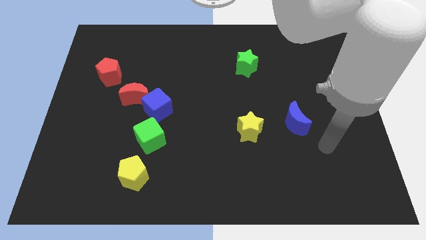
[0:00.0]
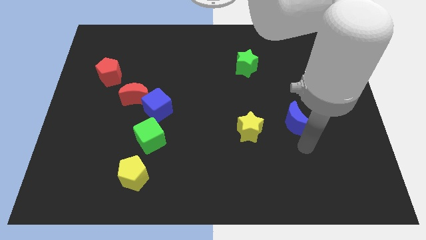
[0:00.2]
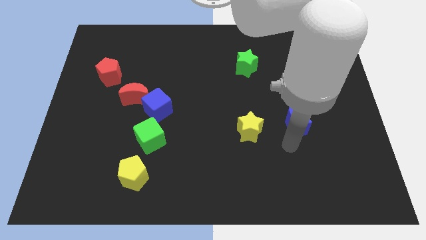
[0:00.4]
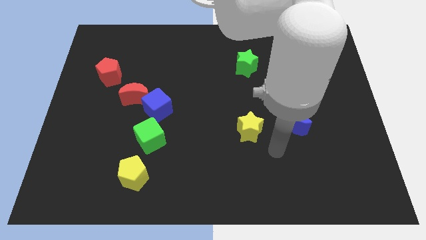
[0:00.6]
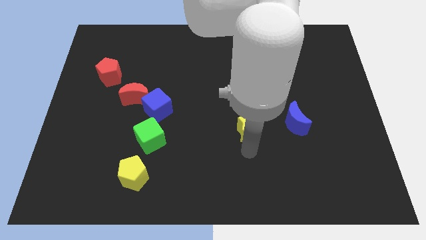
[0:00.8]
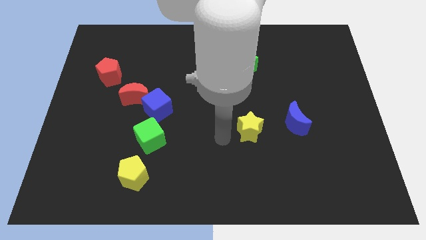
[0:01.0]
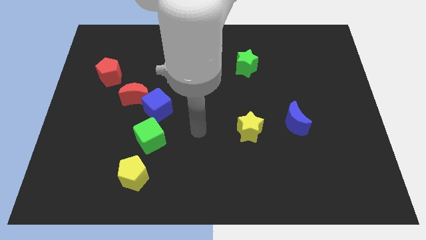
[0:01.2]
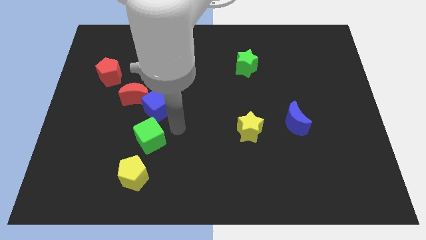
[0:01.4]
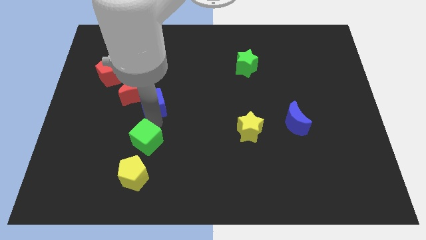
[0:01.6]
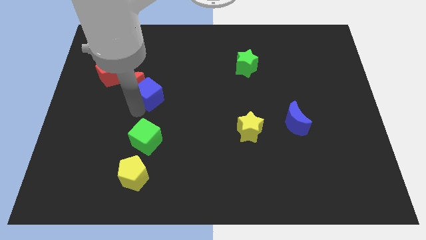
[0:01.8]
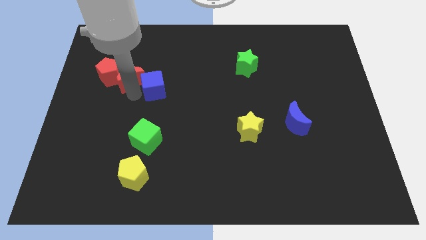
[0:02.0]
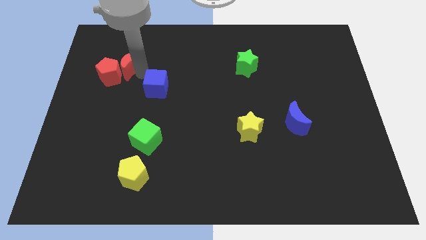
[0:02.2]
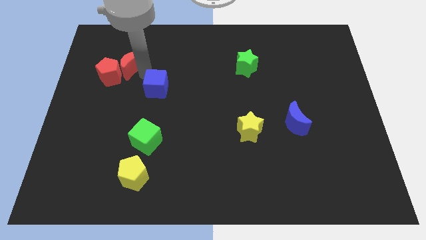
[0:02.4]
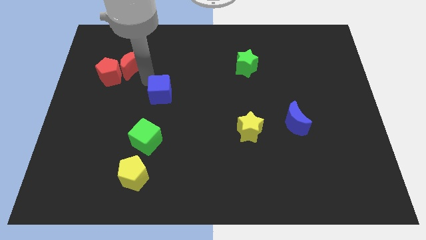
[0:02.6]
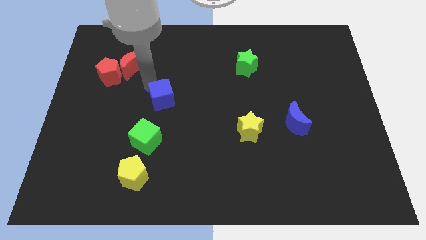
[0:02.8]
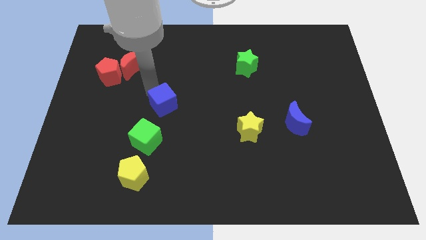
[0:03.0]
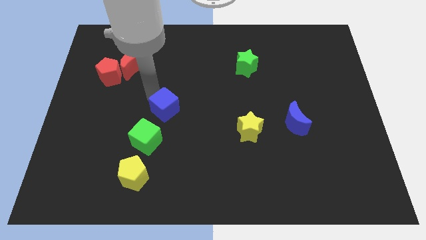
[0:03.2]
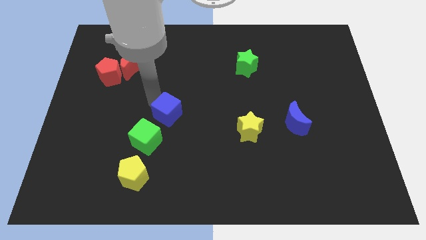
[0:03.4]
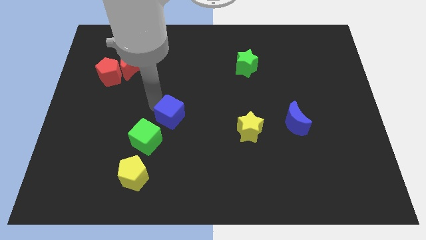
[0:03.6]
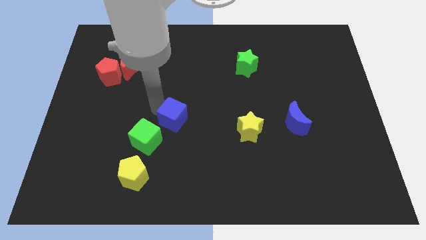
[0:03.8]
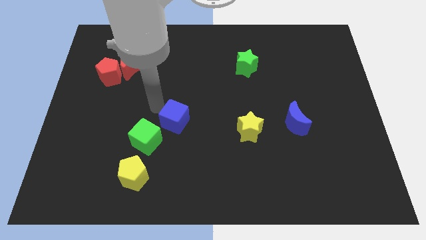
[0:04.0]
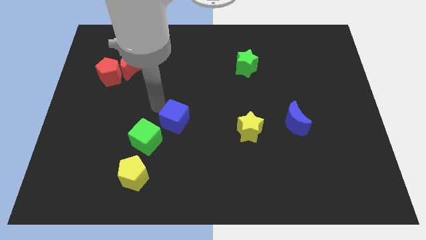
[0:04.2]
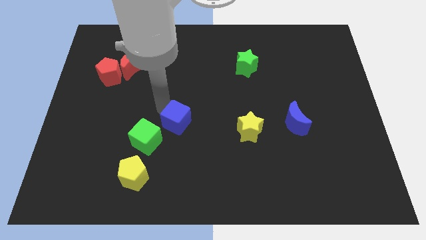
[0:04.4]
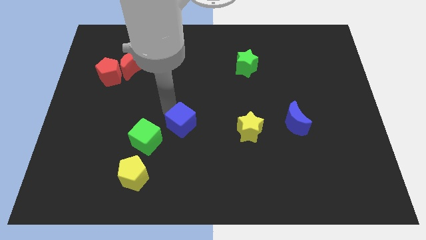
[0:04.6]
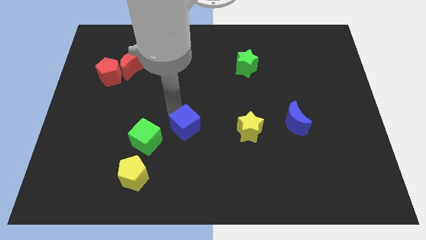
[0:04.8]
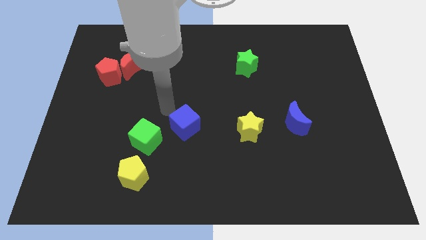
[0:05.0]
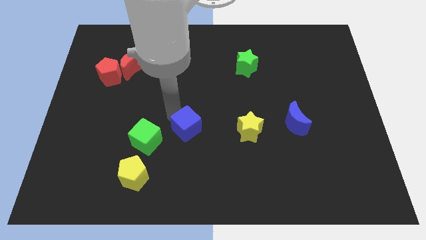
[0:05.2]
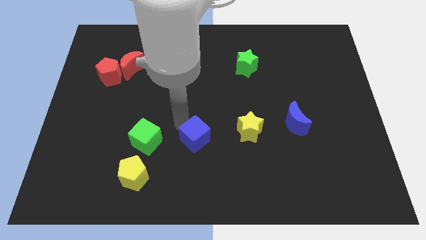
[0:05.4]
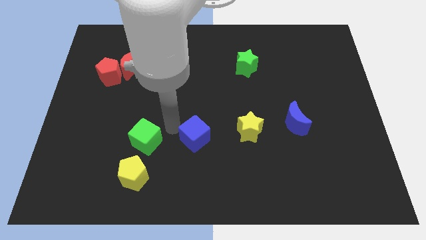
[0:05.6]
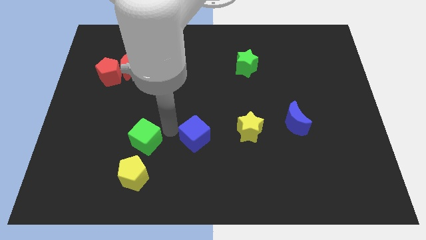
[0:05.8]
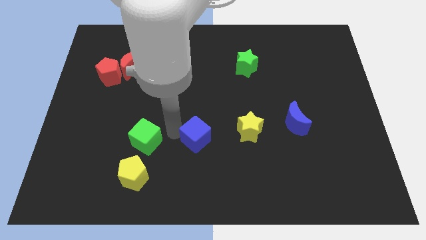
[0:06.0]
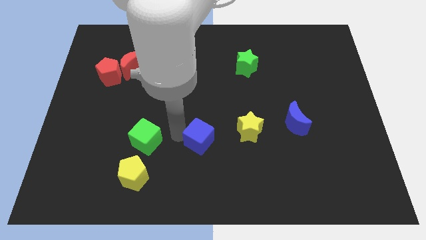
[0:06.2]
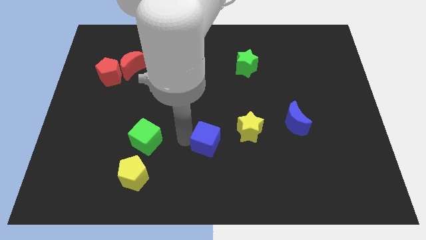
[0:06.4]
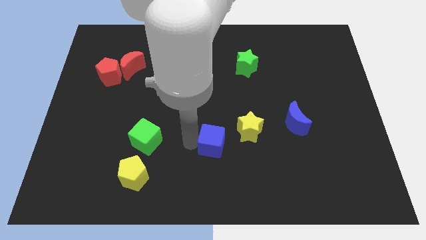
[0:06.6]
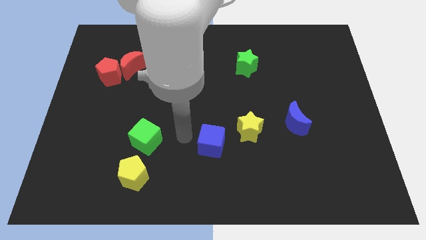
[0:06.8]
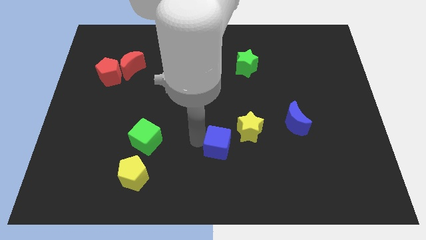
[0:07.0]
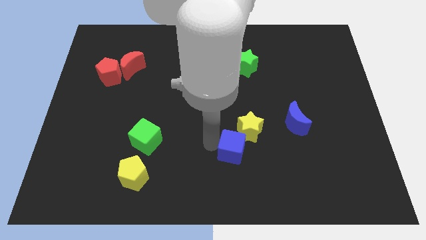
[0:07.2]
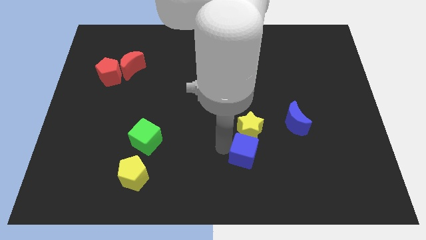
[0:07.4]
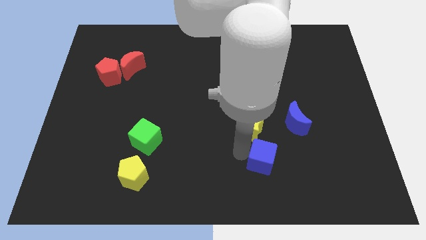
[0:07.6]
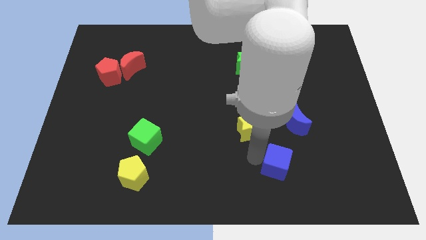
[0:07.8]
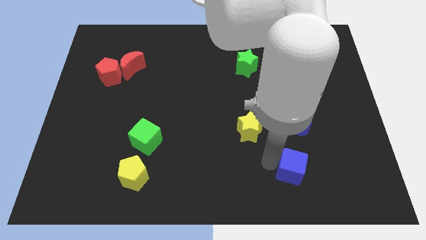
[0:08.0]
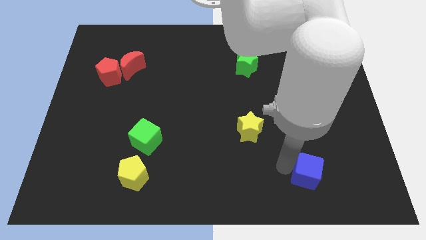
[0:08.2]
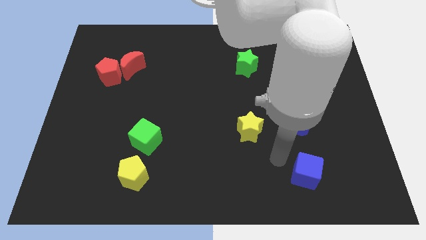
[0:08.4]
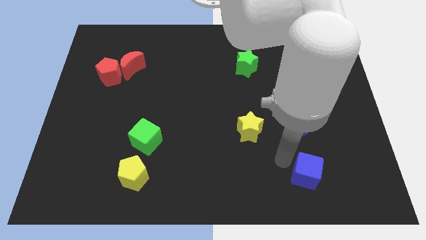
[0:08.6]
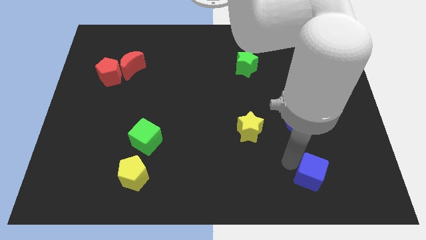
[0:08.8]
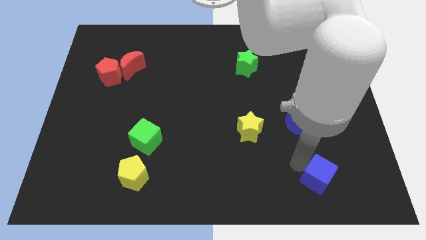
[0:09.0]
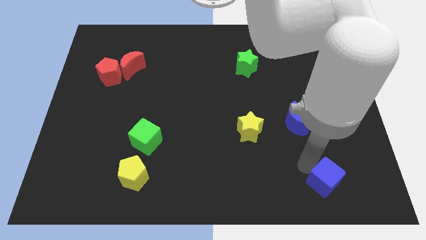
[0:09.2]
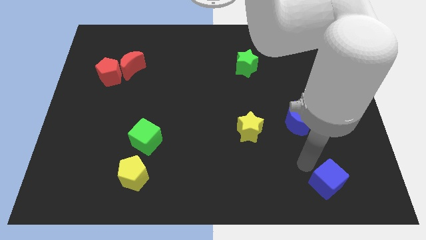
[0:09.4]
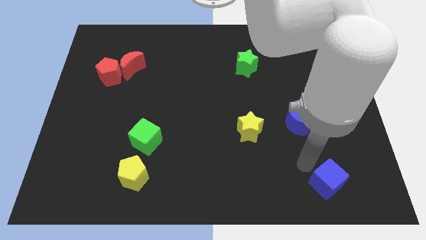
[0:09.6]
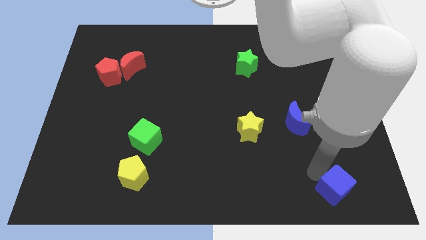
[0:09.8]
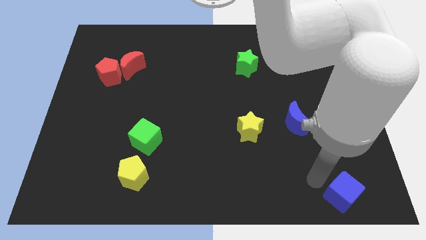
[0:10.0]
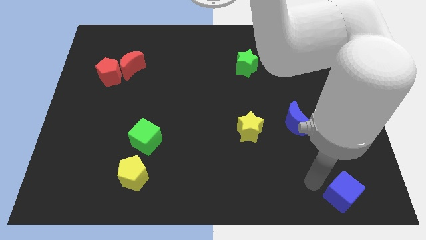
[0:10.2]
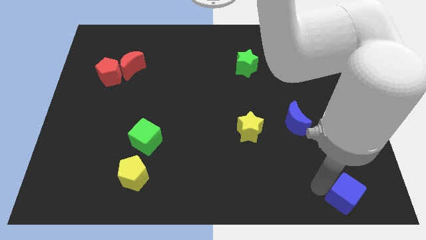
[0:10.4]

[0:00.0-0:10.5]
put the blue cube to the bottom right

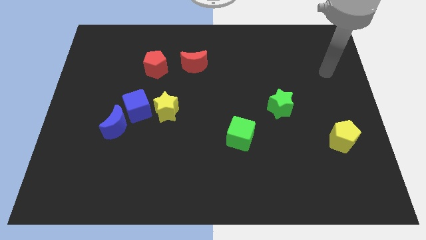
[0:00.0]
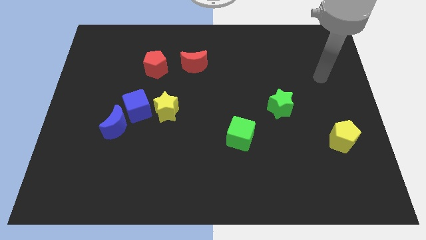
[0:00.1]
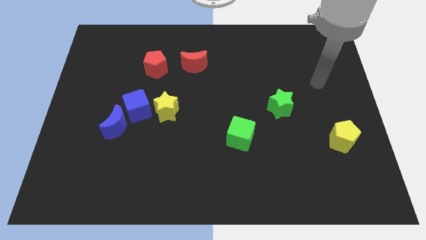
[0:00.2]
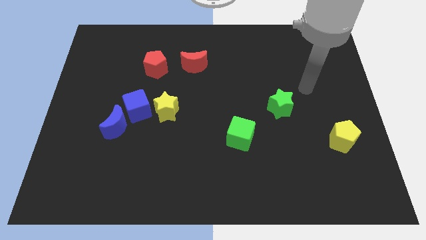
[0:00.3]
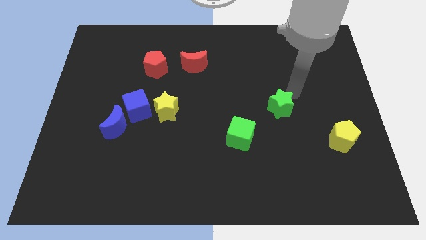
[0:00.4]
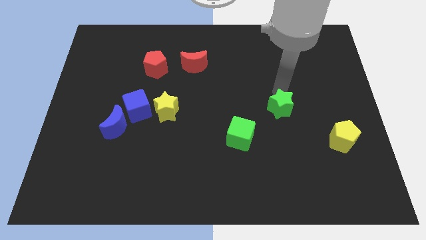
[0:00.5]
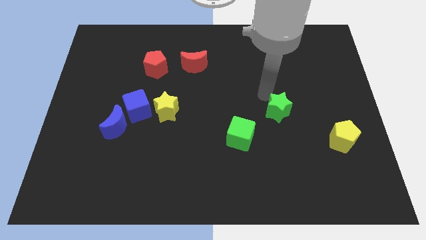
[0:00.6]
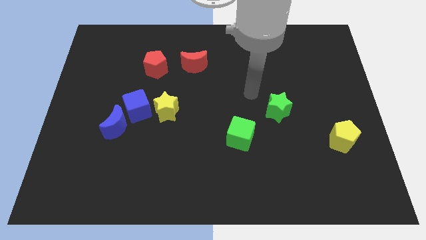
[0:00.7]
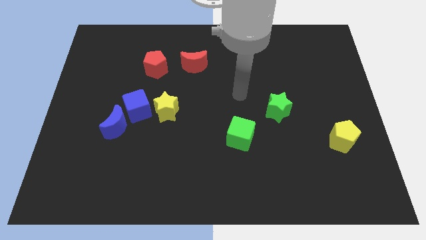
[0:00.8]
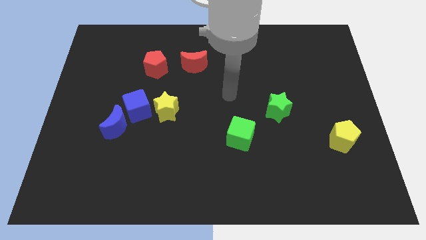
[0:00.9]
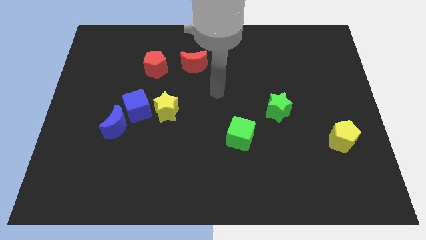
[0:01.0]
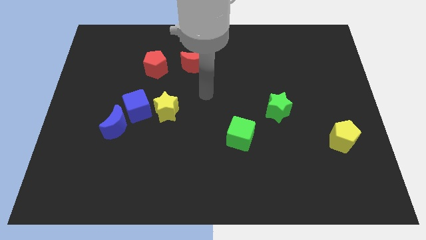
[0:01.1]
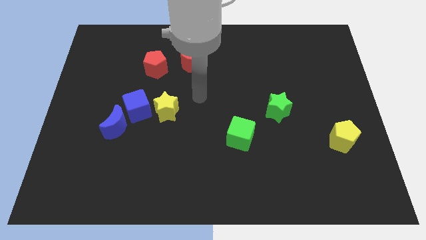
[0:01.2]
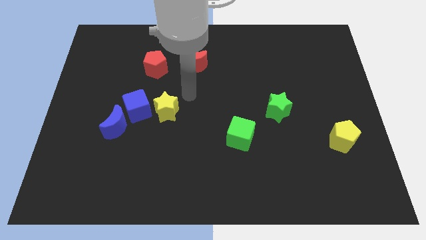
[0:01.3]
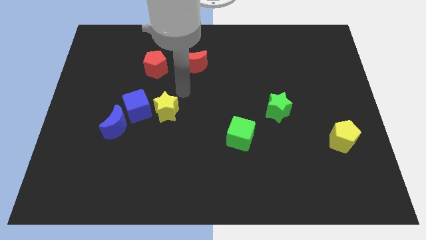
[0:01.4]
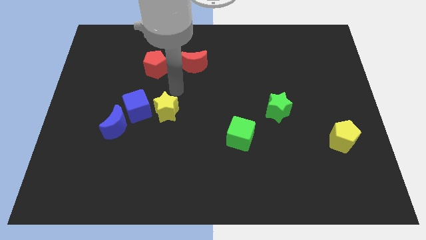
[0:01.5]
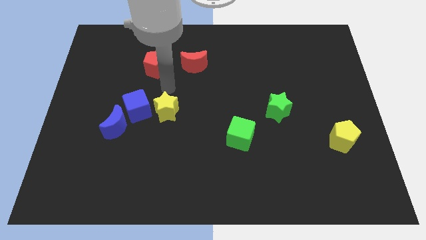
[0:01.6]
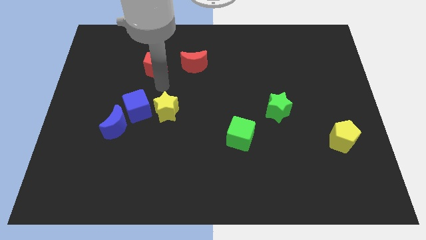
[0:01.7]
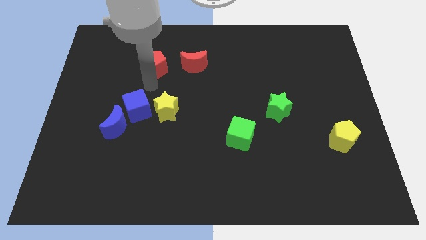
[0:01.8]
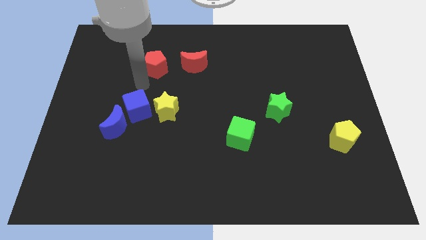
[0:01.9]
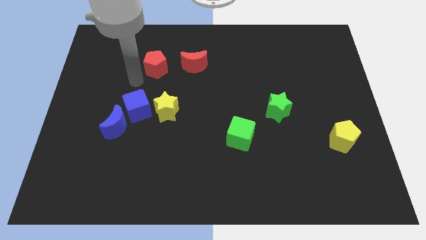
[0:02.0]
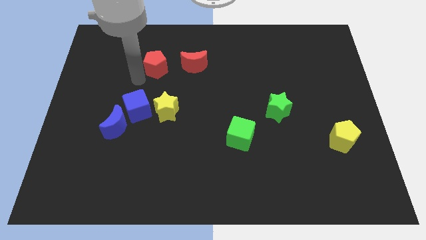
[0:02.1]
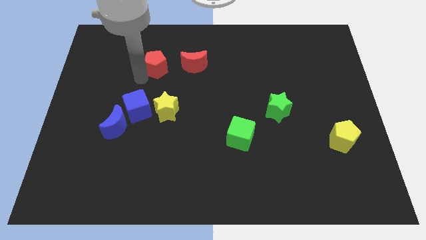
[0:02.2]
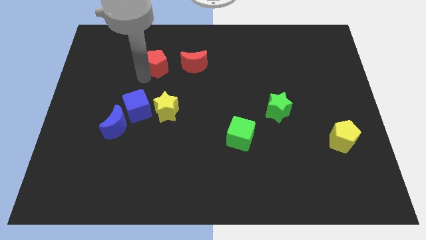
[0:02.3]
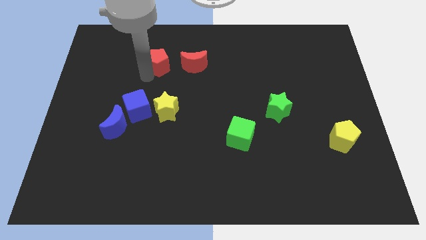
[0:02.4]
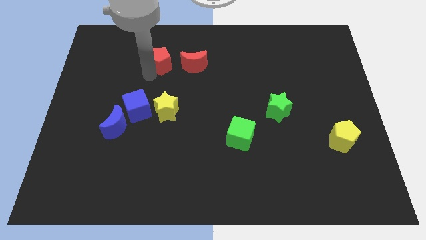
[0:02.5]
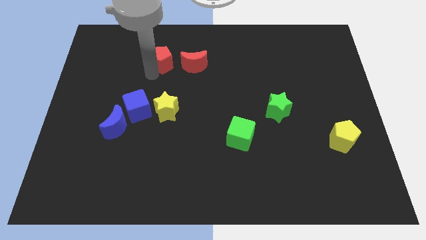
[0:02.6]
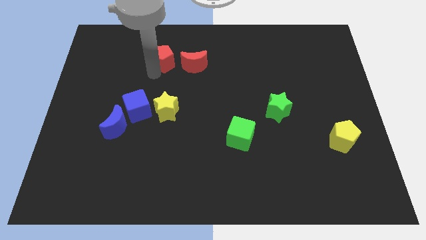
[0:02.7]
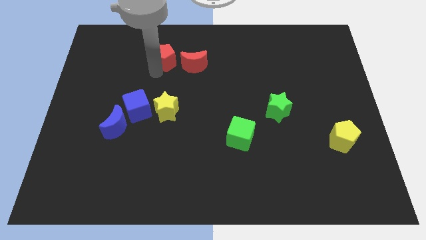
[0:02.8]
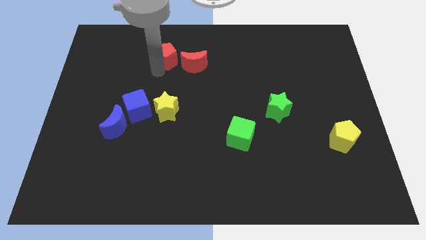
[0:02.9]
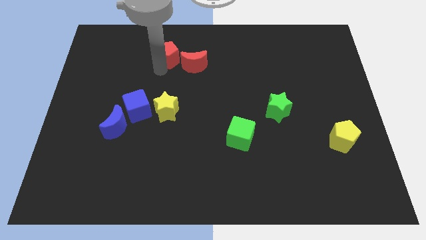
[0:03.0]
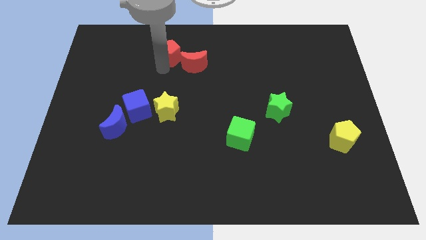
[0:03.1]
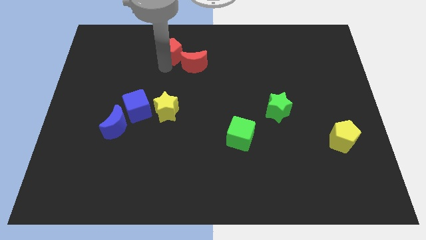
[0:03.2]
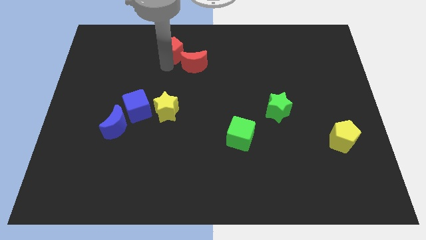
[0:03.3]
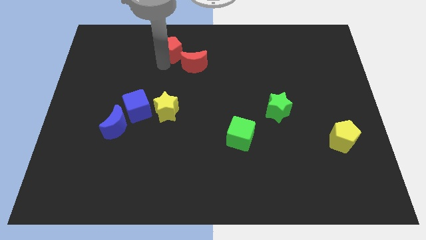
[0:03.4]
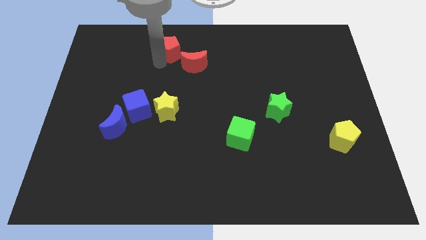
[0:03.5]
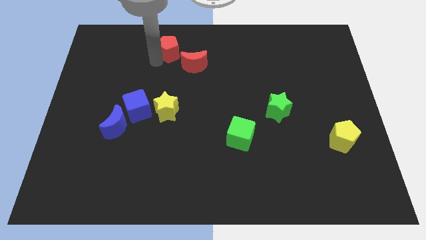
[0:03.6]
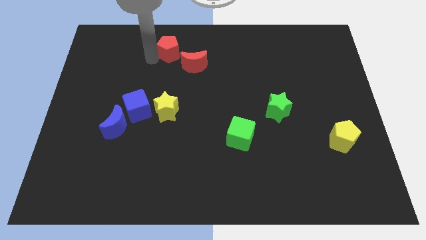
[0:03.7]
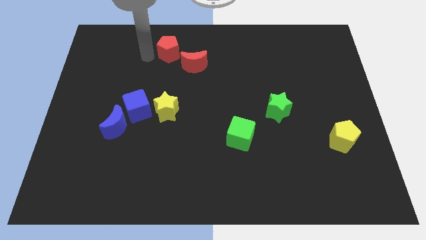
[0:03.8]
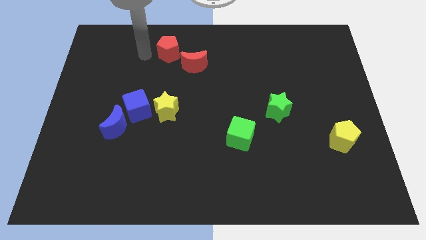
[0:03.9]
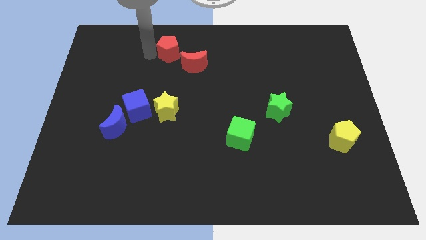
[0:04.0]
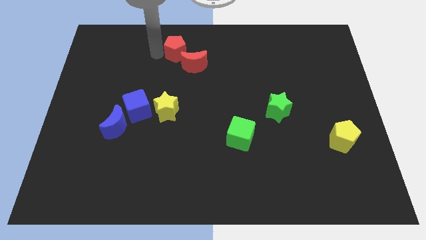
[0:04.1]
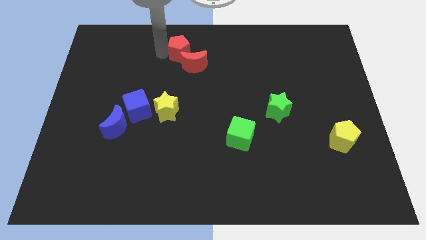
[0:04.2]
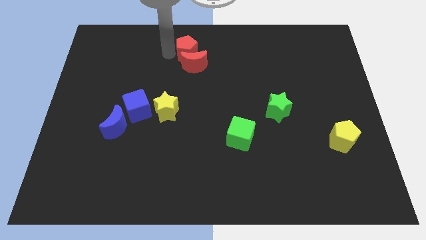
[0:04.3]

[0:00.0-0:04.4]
push the red pentagon to the towards your base
